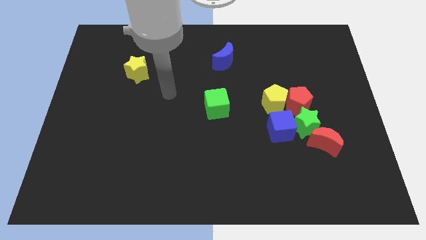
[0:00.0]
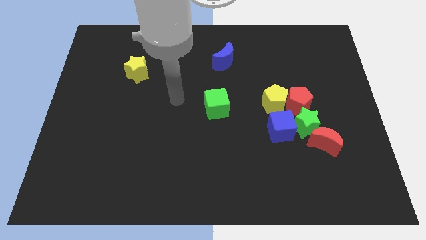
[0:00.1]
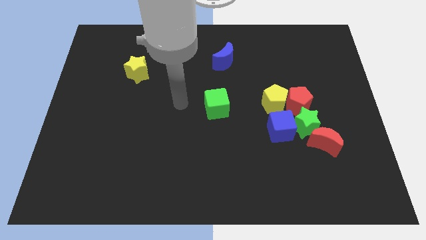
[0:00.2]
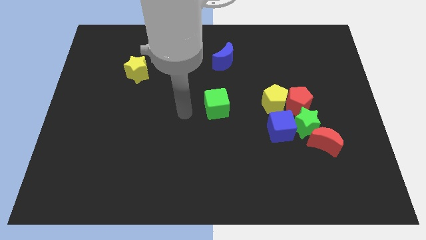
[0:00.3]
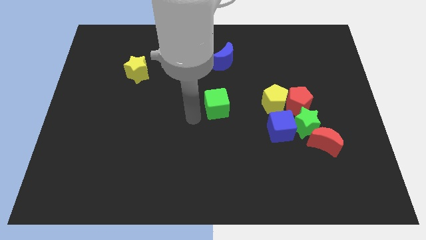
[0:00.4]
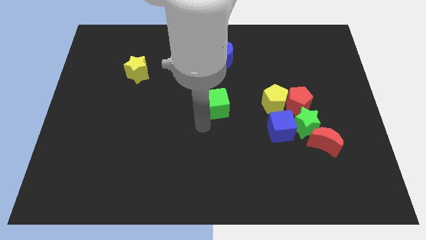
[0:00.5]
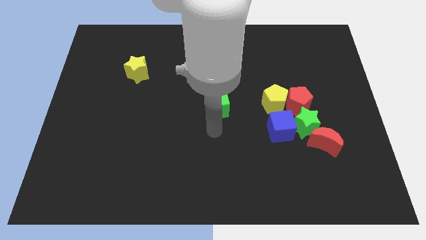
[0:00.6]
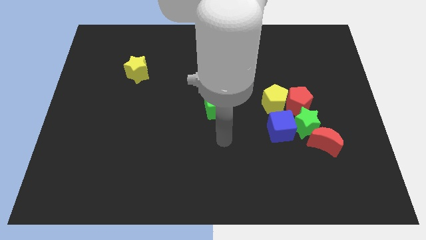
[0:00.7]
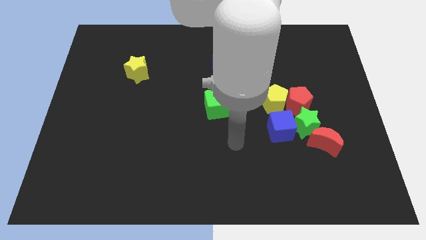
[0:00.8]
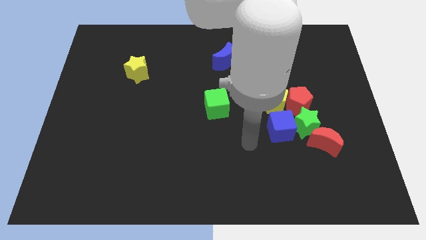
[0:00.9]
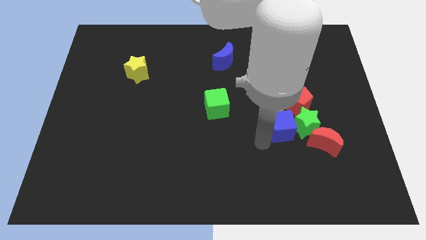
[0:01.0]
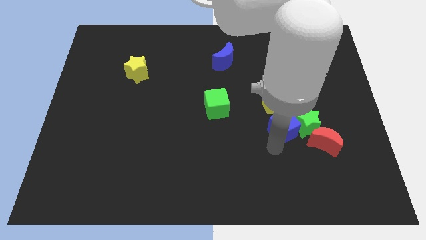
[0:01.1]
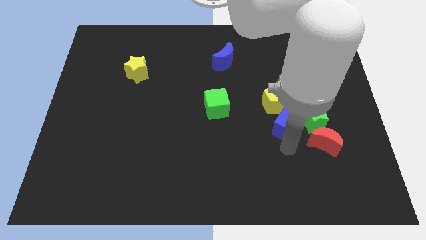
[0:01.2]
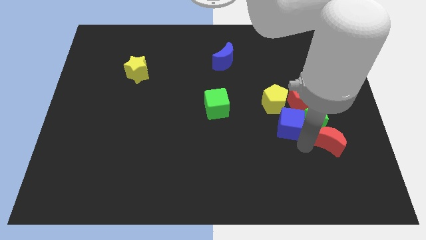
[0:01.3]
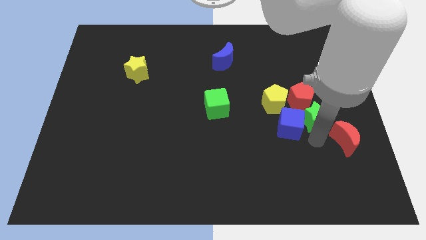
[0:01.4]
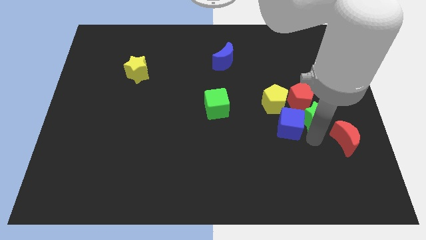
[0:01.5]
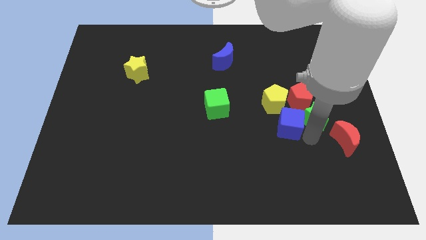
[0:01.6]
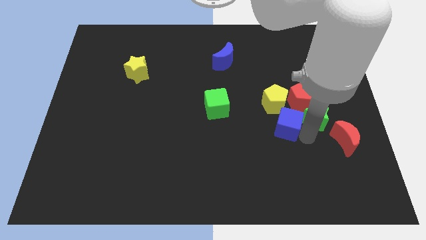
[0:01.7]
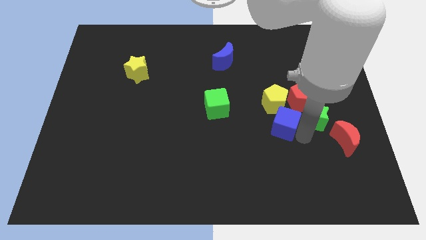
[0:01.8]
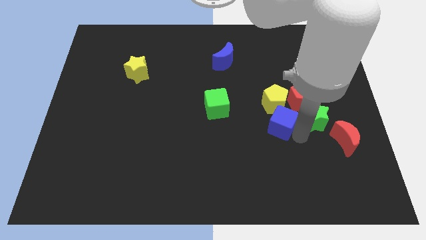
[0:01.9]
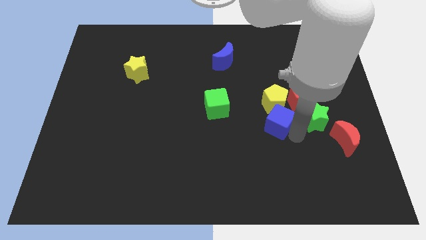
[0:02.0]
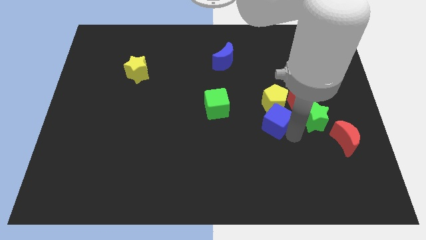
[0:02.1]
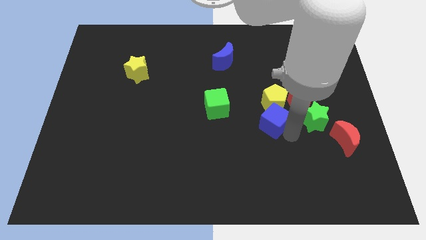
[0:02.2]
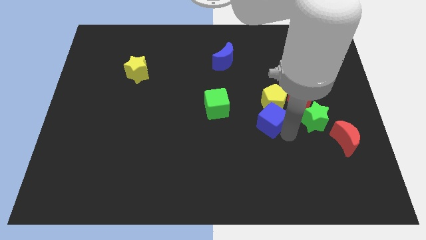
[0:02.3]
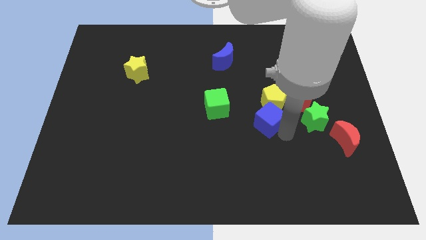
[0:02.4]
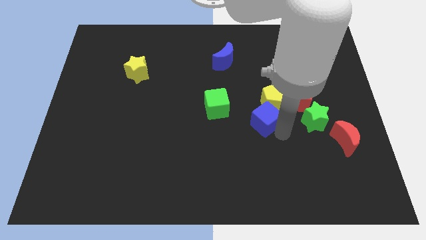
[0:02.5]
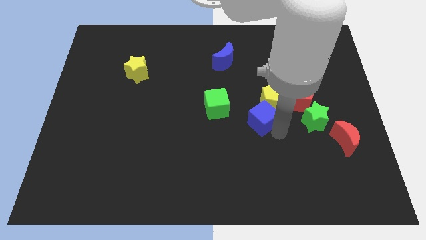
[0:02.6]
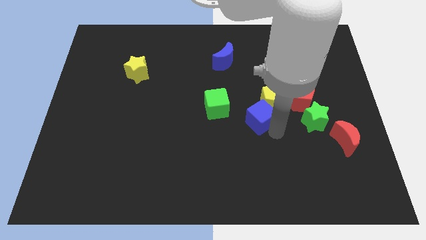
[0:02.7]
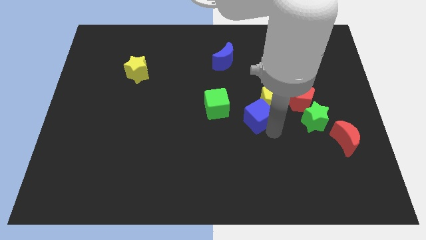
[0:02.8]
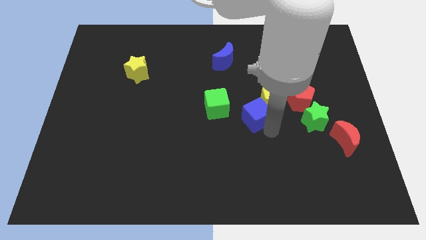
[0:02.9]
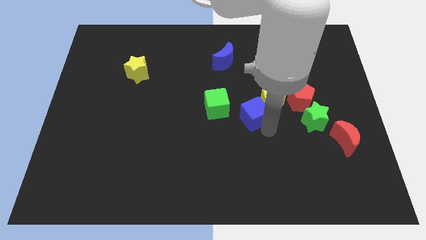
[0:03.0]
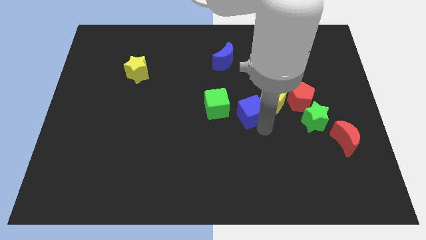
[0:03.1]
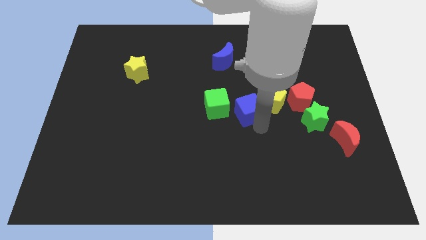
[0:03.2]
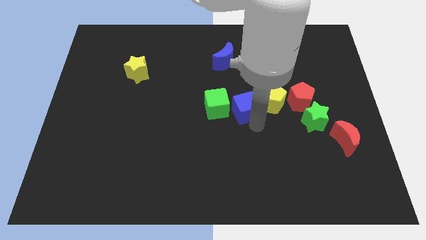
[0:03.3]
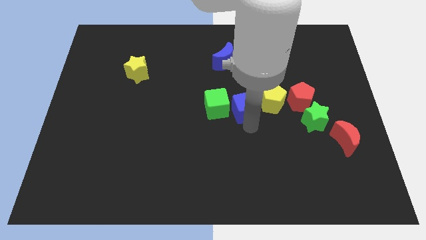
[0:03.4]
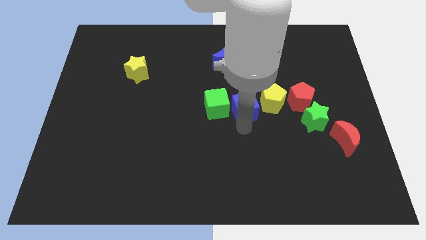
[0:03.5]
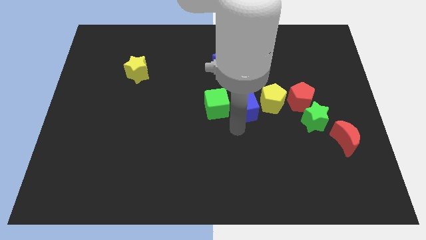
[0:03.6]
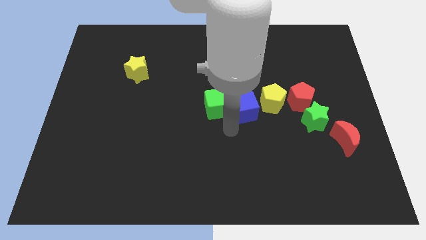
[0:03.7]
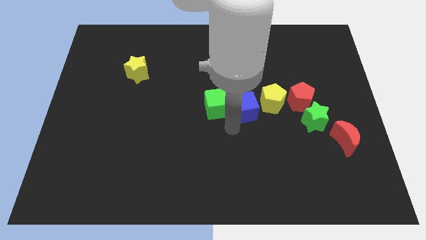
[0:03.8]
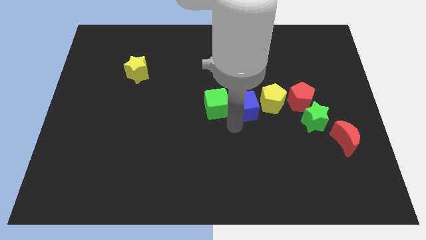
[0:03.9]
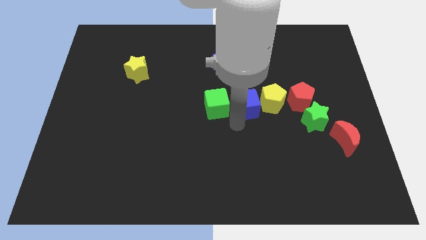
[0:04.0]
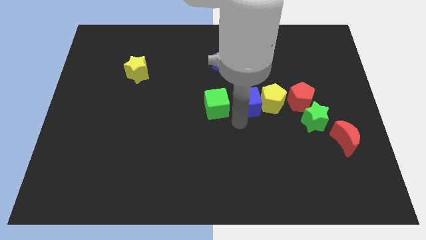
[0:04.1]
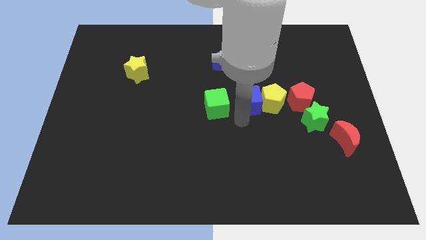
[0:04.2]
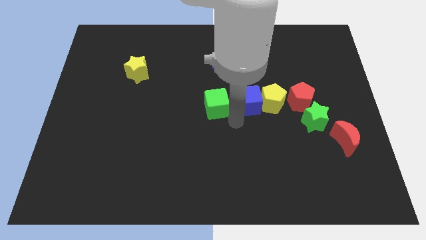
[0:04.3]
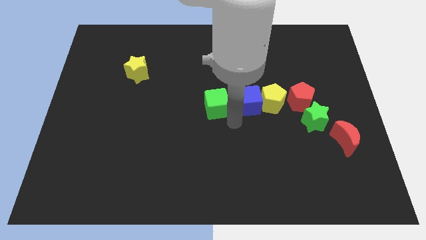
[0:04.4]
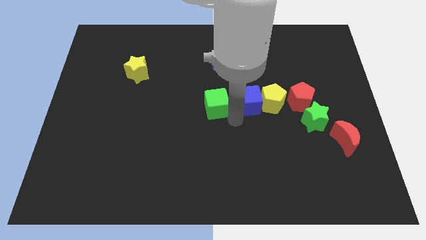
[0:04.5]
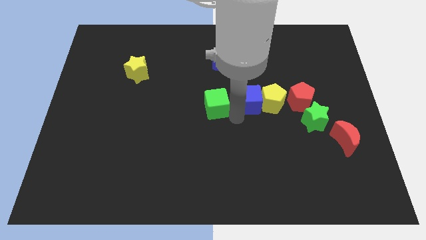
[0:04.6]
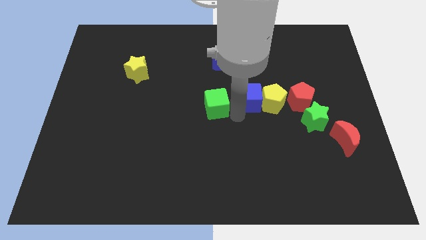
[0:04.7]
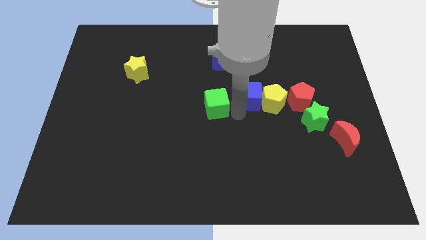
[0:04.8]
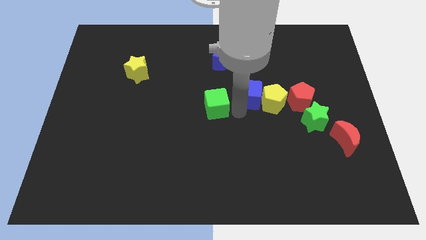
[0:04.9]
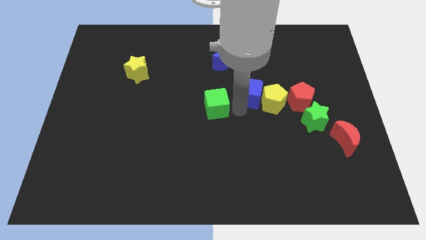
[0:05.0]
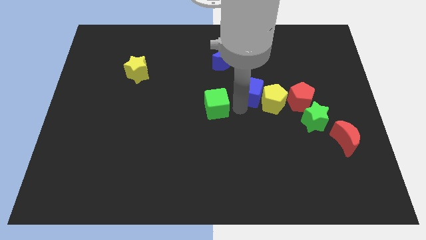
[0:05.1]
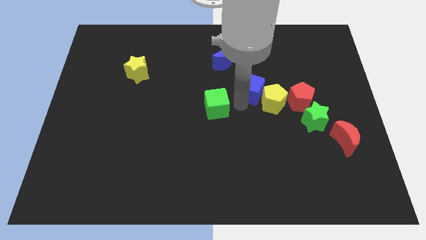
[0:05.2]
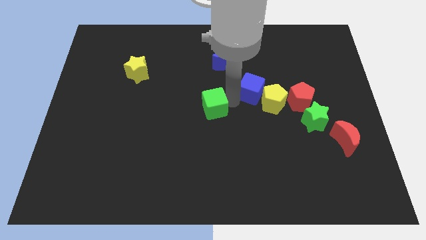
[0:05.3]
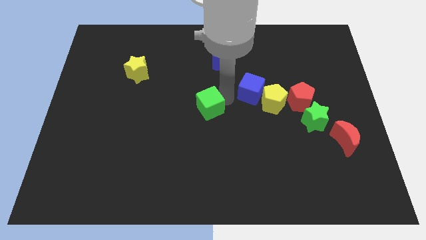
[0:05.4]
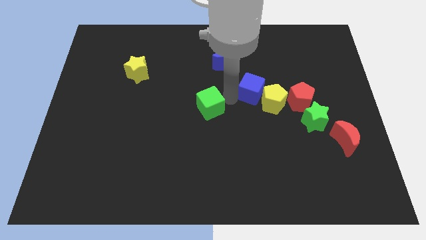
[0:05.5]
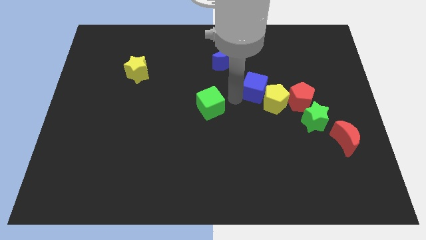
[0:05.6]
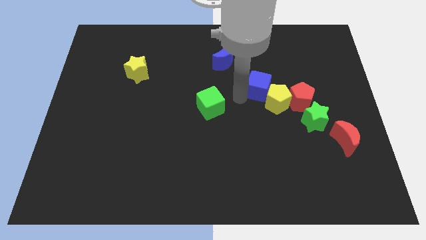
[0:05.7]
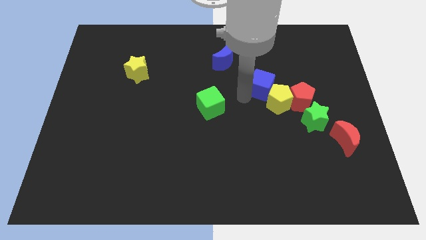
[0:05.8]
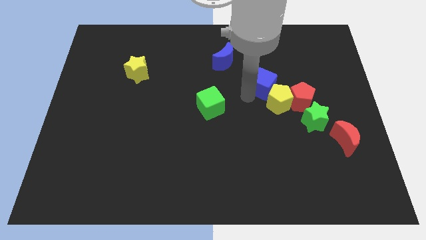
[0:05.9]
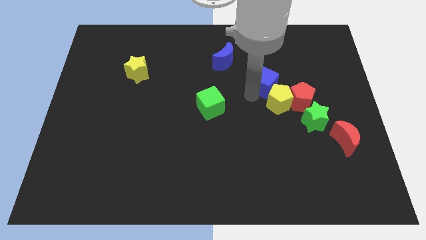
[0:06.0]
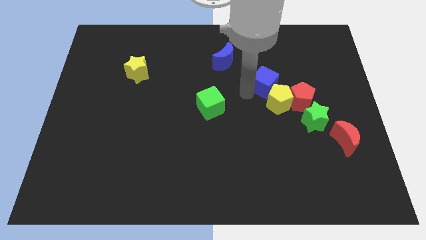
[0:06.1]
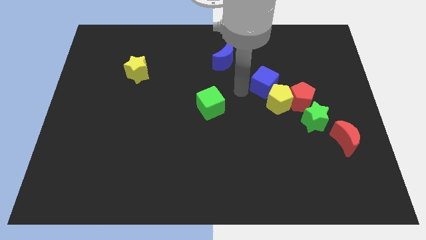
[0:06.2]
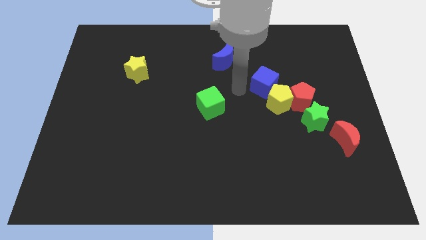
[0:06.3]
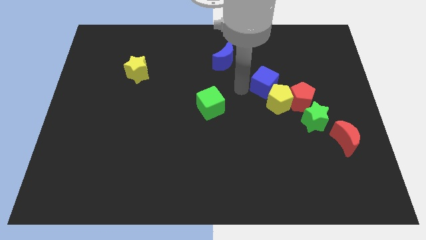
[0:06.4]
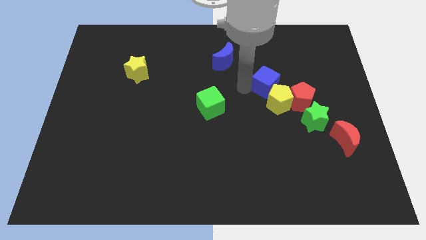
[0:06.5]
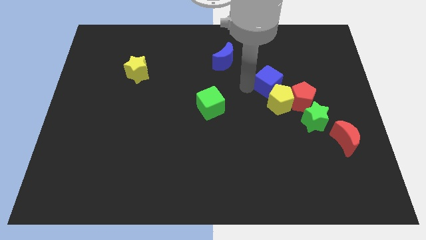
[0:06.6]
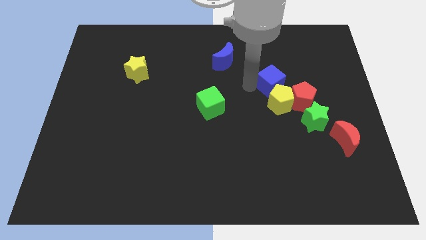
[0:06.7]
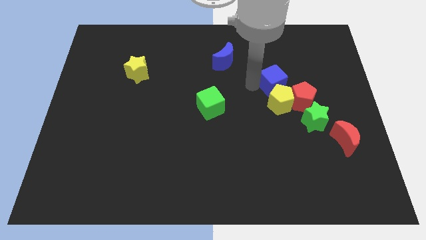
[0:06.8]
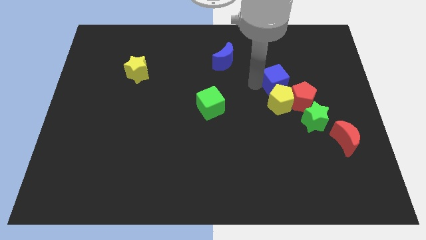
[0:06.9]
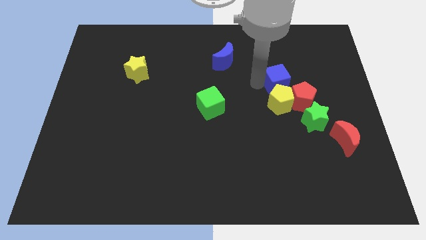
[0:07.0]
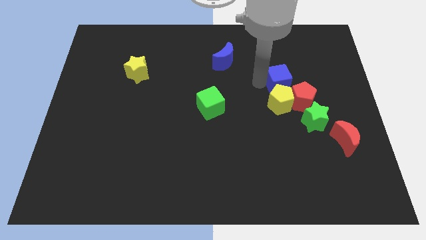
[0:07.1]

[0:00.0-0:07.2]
push the blue cube diagonally up and to the right a bit

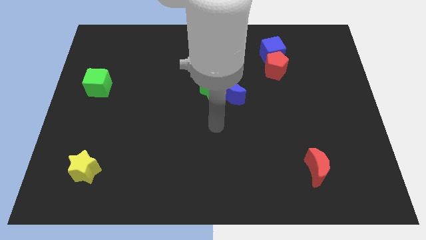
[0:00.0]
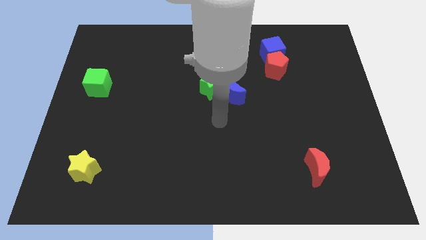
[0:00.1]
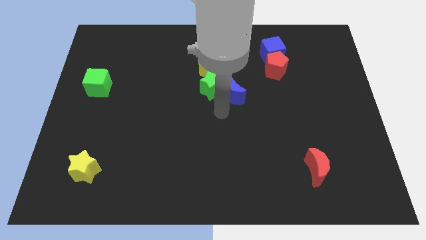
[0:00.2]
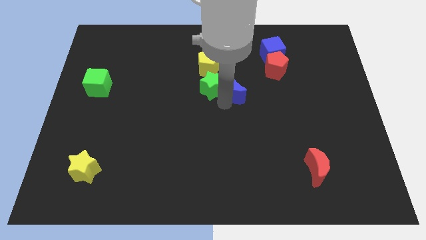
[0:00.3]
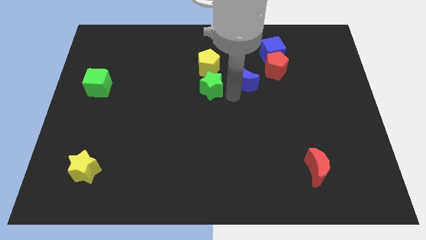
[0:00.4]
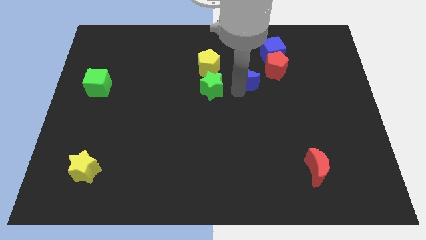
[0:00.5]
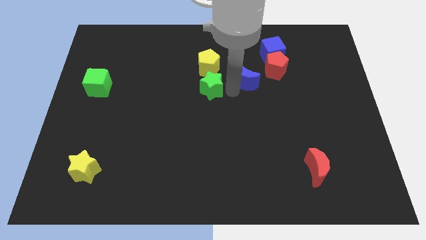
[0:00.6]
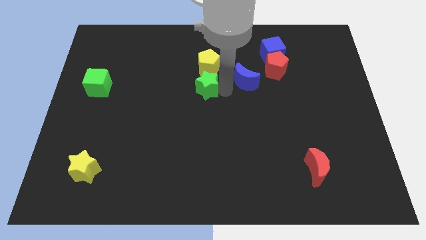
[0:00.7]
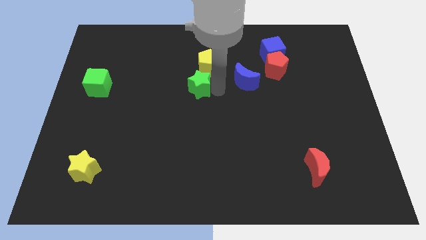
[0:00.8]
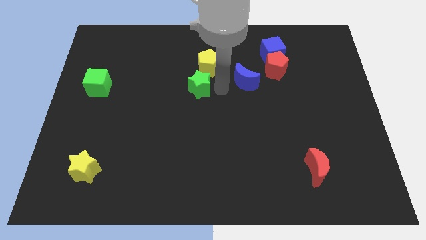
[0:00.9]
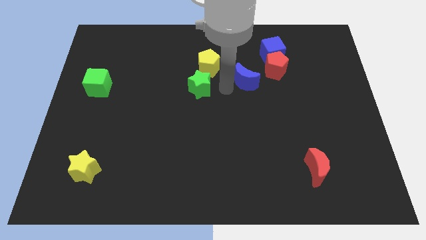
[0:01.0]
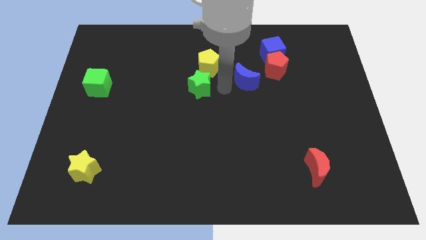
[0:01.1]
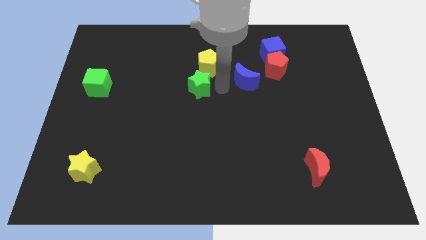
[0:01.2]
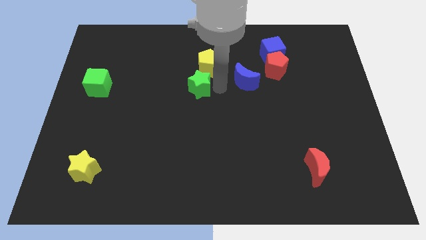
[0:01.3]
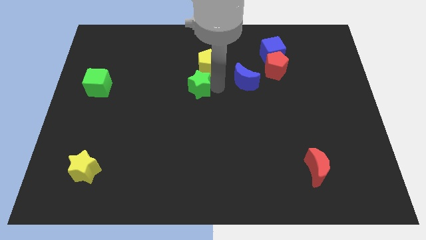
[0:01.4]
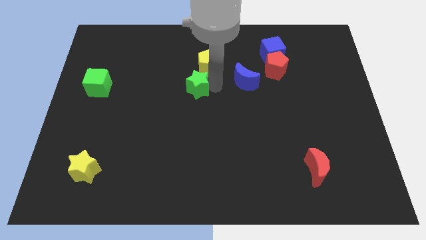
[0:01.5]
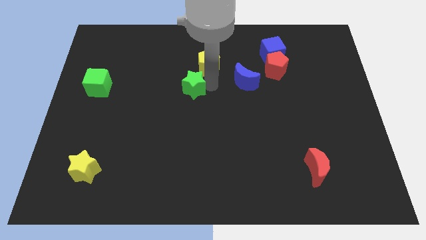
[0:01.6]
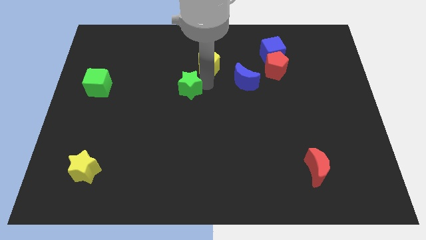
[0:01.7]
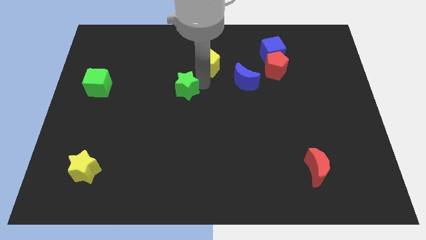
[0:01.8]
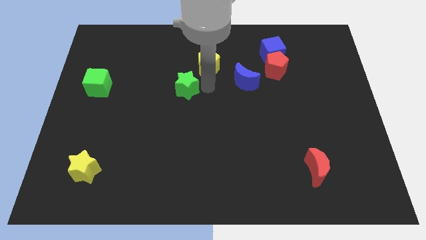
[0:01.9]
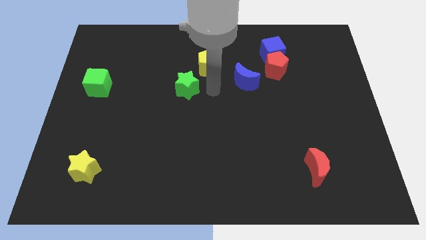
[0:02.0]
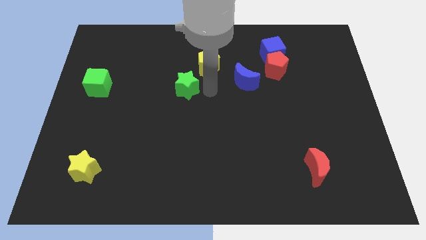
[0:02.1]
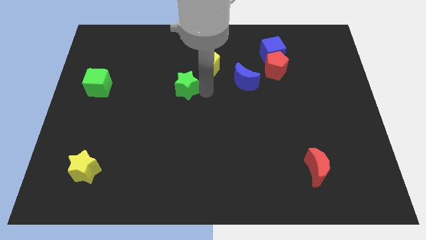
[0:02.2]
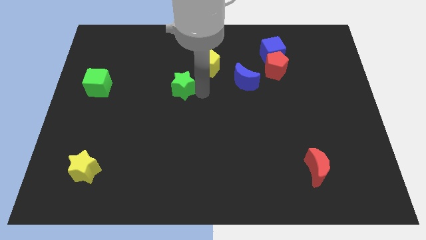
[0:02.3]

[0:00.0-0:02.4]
push the green star a little left
